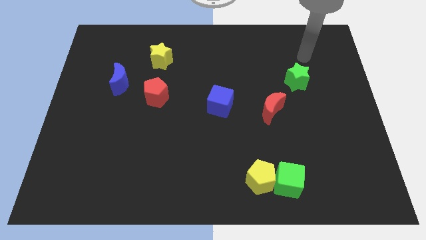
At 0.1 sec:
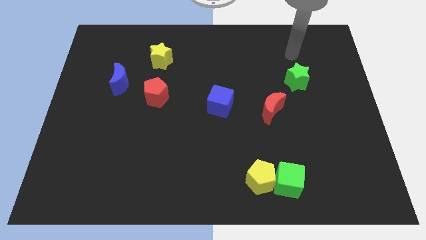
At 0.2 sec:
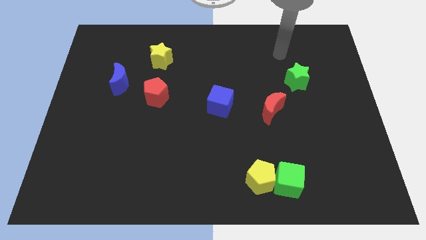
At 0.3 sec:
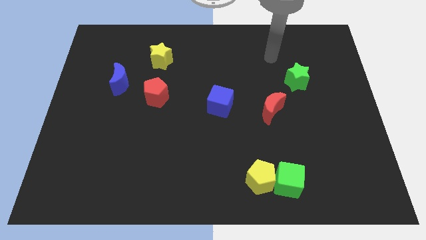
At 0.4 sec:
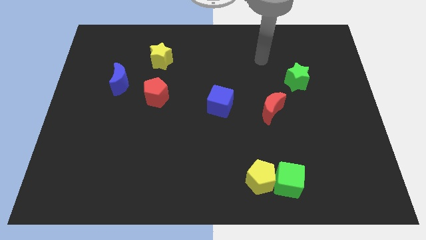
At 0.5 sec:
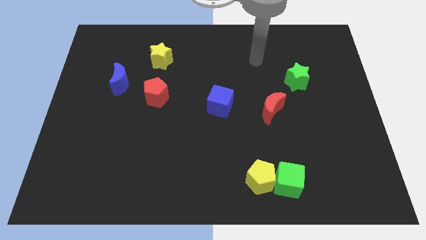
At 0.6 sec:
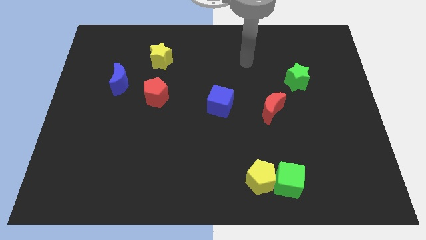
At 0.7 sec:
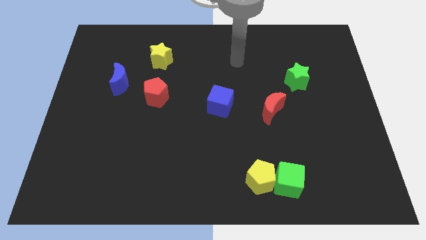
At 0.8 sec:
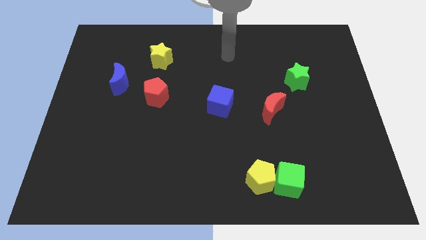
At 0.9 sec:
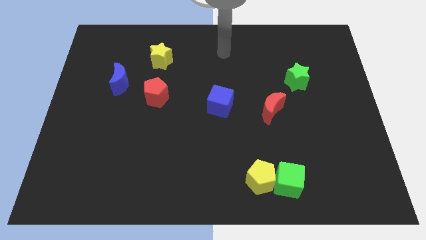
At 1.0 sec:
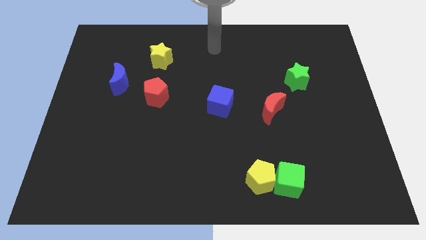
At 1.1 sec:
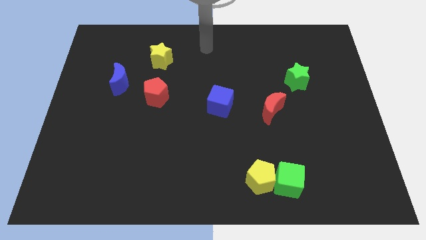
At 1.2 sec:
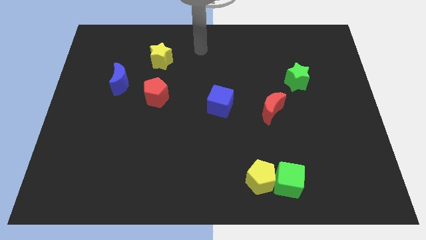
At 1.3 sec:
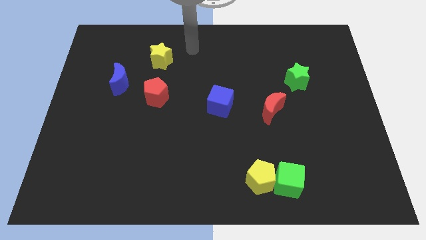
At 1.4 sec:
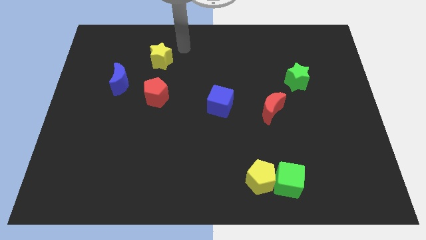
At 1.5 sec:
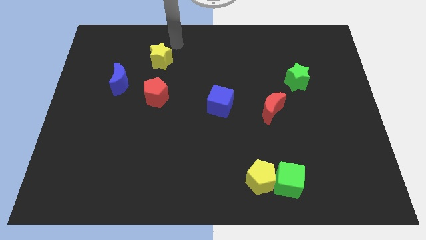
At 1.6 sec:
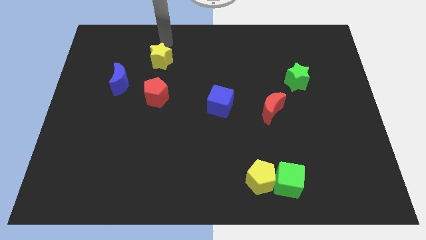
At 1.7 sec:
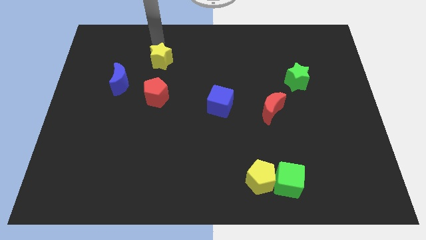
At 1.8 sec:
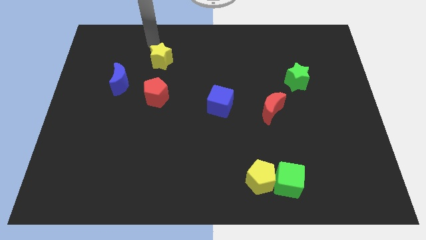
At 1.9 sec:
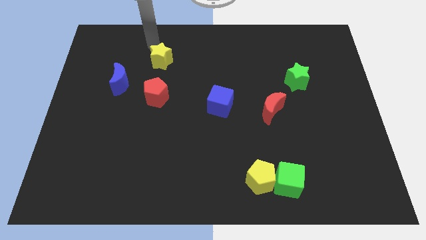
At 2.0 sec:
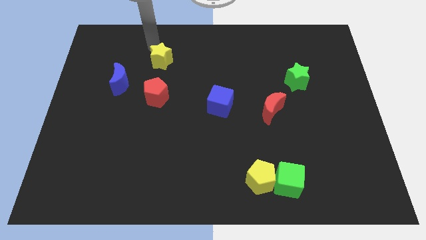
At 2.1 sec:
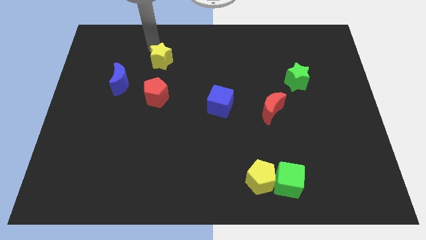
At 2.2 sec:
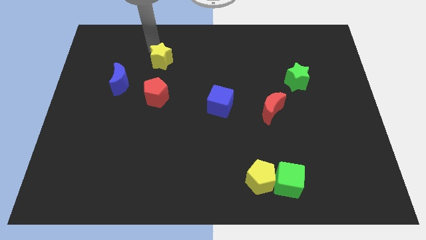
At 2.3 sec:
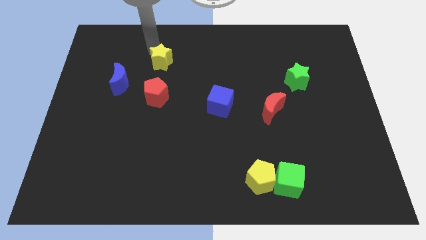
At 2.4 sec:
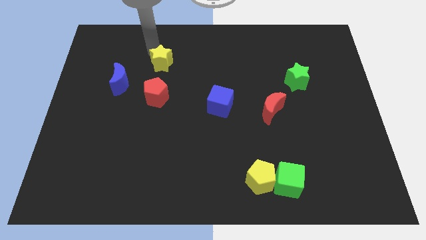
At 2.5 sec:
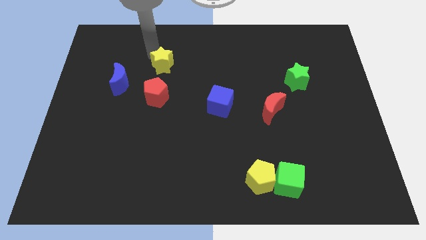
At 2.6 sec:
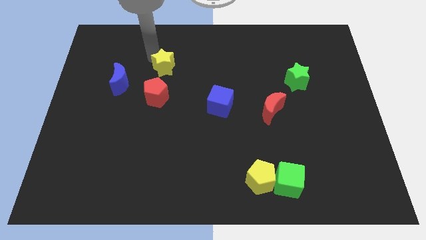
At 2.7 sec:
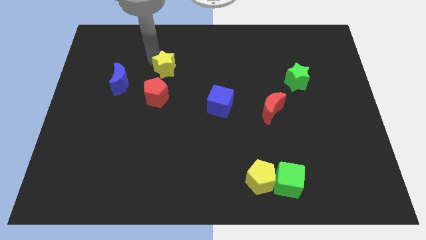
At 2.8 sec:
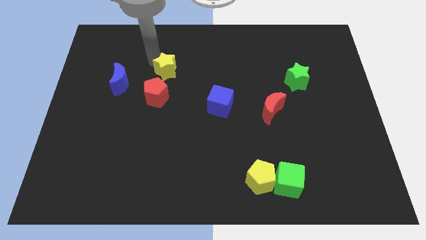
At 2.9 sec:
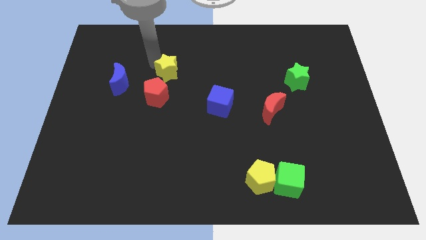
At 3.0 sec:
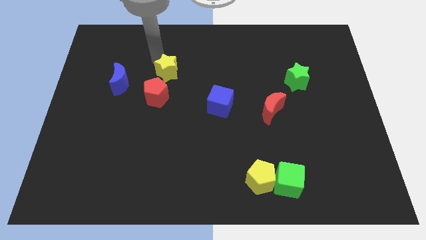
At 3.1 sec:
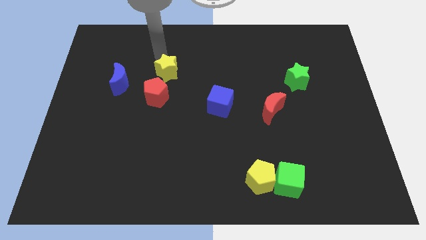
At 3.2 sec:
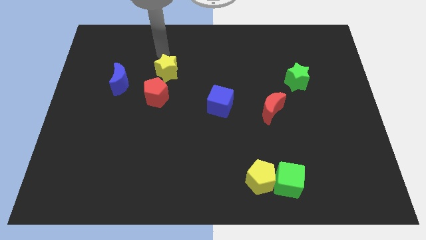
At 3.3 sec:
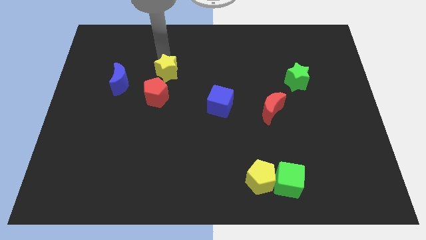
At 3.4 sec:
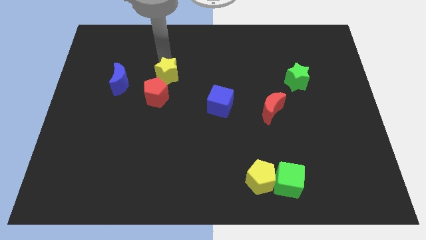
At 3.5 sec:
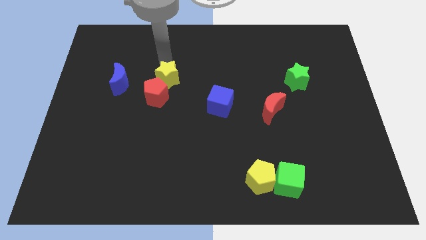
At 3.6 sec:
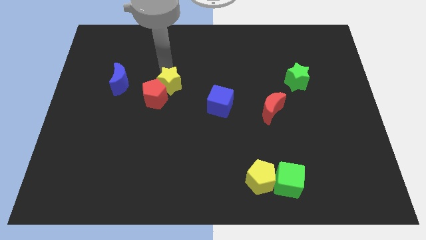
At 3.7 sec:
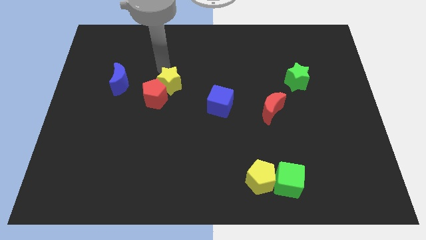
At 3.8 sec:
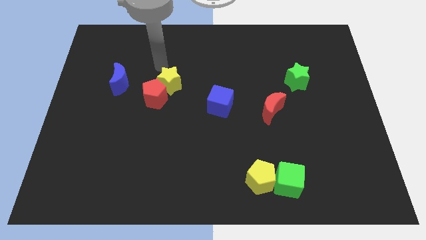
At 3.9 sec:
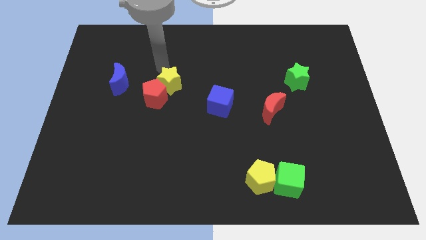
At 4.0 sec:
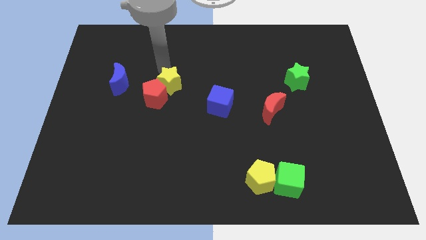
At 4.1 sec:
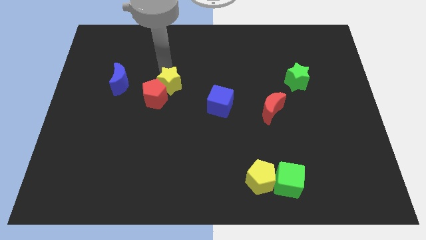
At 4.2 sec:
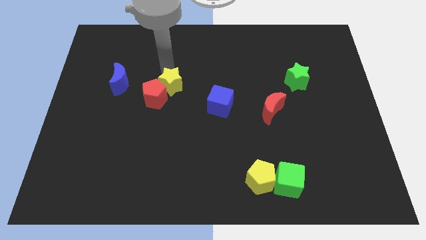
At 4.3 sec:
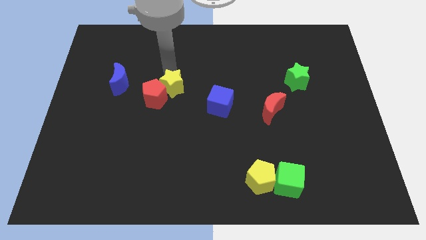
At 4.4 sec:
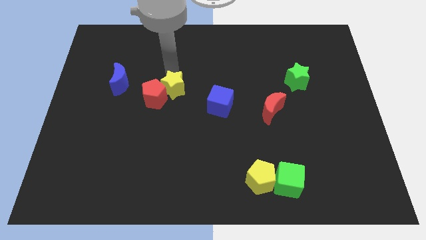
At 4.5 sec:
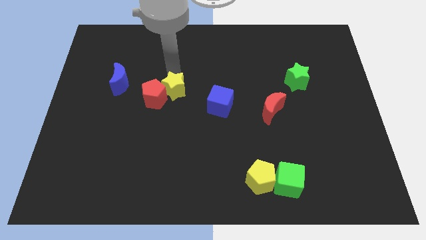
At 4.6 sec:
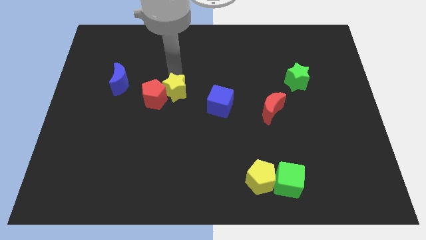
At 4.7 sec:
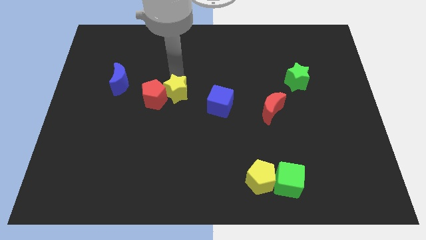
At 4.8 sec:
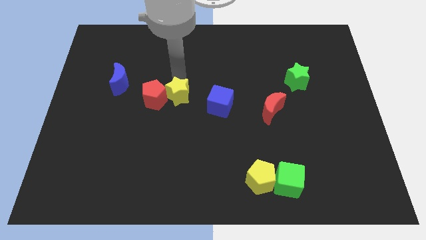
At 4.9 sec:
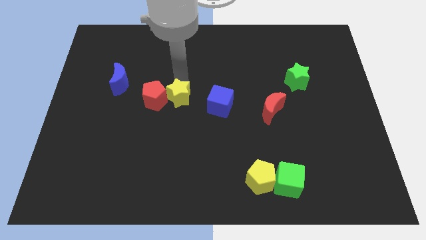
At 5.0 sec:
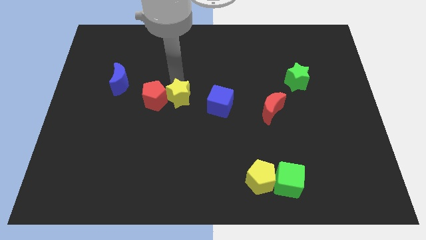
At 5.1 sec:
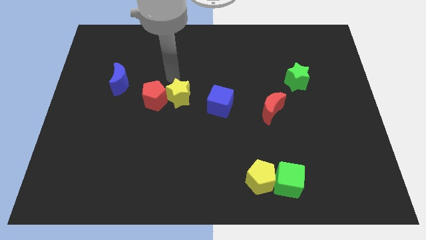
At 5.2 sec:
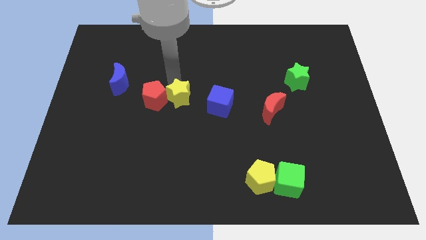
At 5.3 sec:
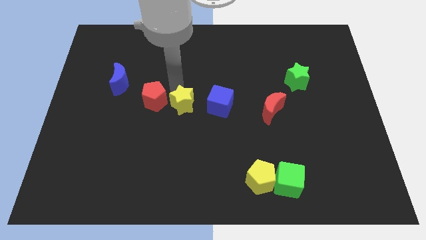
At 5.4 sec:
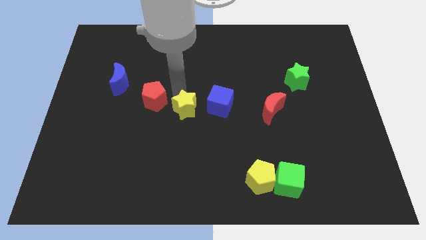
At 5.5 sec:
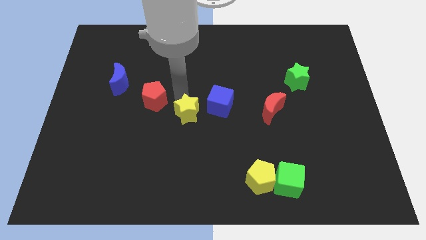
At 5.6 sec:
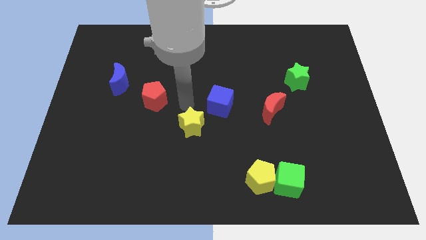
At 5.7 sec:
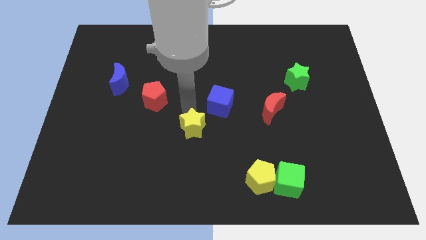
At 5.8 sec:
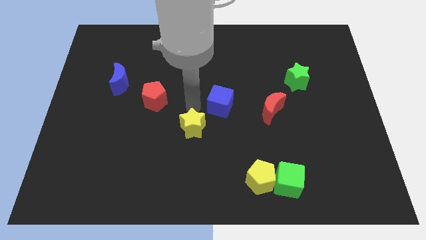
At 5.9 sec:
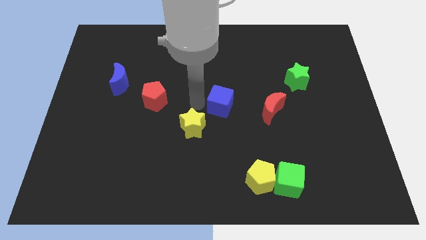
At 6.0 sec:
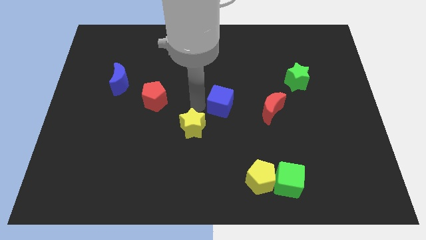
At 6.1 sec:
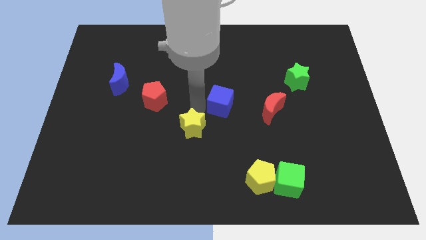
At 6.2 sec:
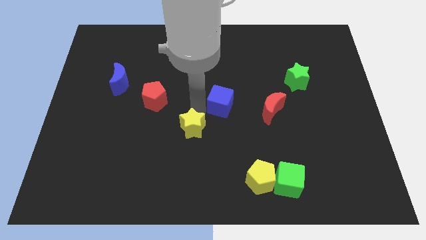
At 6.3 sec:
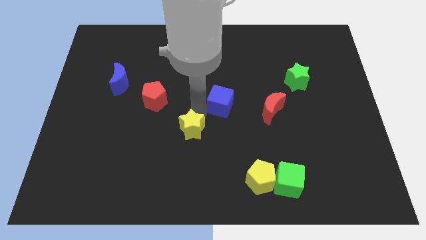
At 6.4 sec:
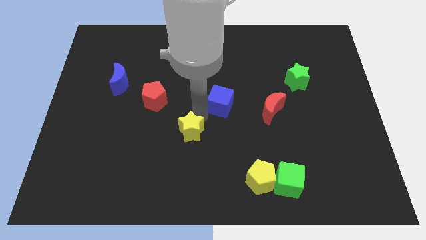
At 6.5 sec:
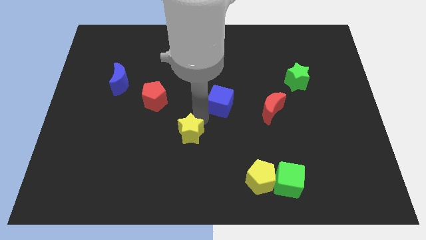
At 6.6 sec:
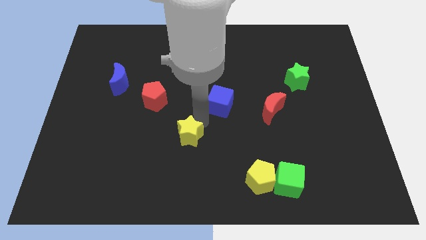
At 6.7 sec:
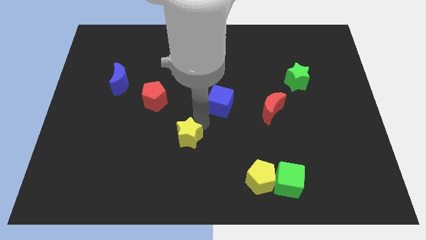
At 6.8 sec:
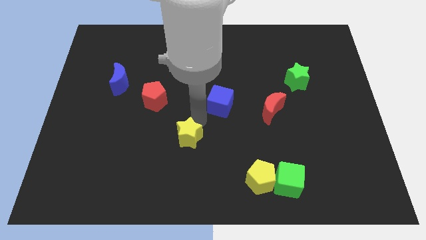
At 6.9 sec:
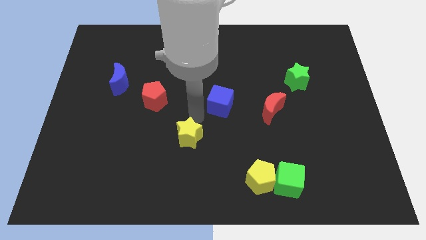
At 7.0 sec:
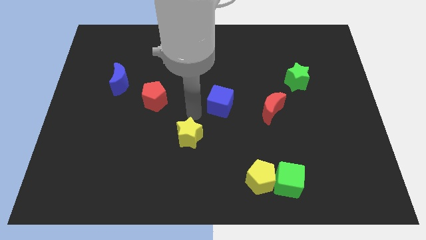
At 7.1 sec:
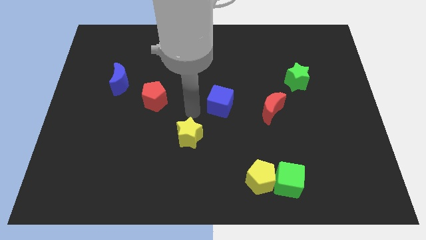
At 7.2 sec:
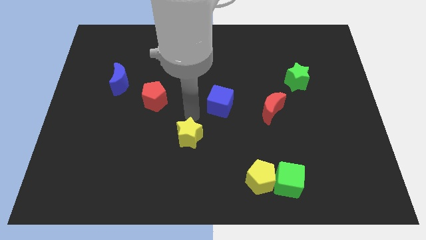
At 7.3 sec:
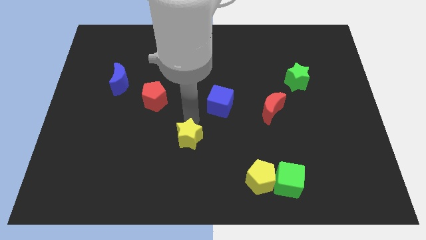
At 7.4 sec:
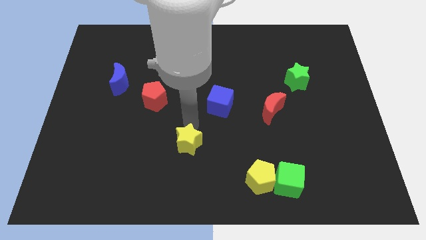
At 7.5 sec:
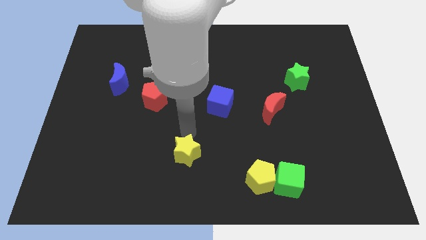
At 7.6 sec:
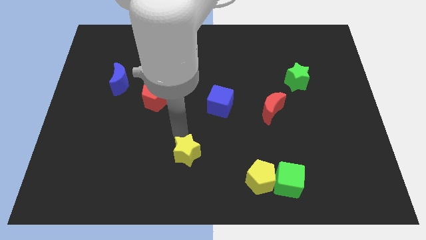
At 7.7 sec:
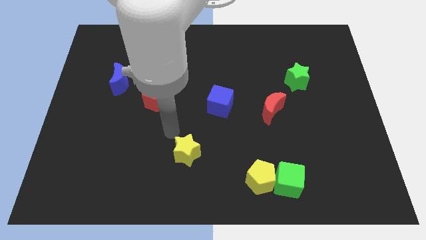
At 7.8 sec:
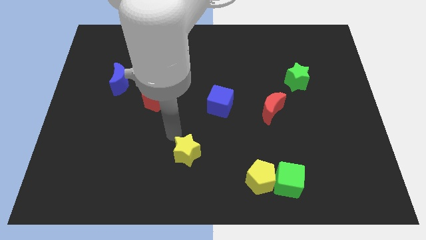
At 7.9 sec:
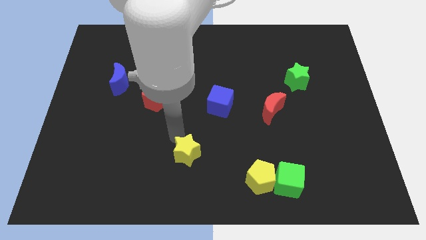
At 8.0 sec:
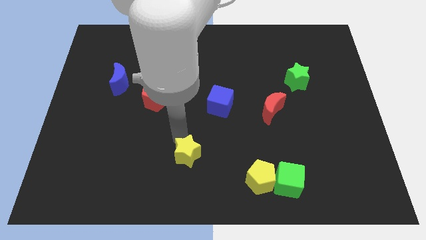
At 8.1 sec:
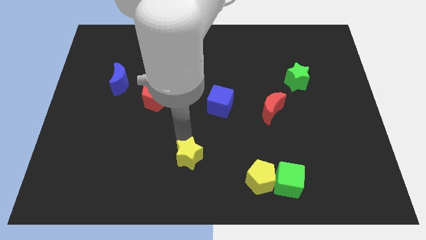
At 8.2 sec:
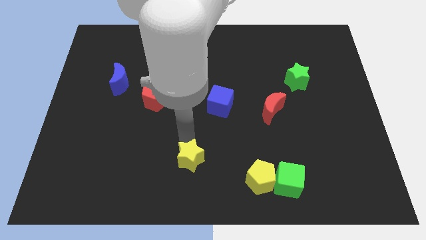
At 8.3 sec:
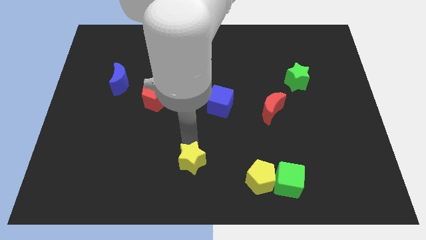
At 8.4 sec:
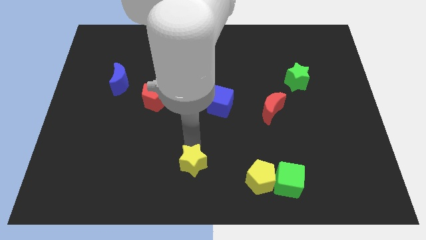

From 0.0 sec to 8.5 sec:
put the yellow star left of the yellow pentagon

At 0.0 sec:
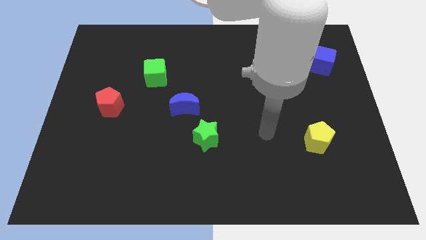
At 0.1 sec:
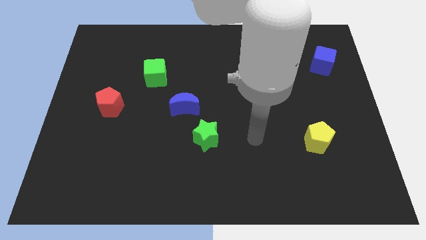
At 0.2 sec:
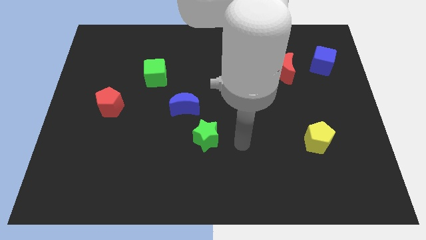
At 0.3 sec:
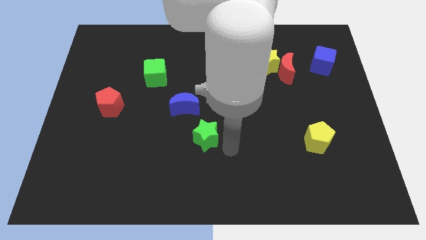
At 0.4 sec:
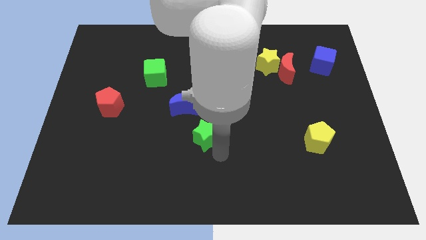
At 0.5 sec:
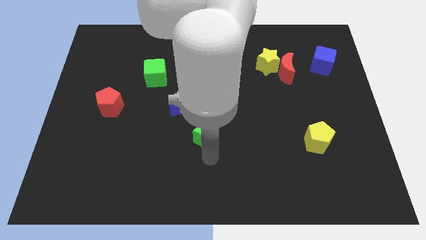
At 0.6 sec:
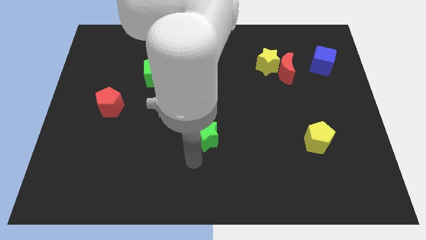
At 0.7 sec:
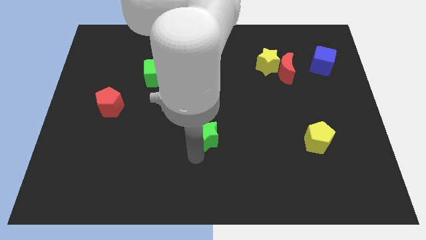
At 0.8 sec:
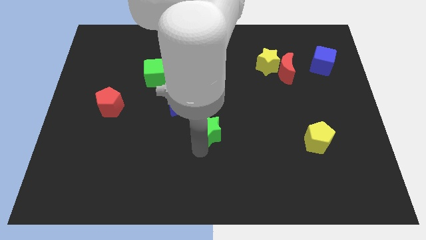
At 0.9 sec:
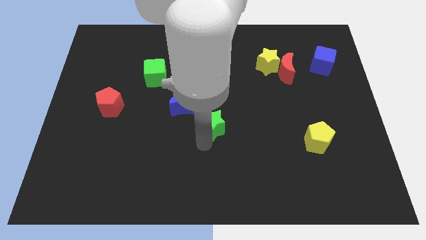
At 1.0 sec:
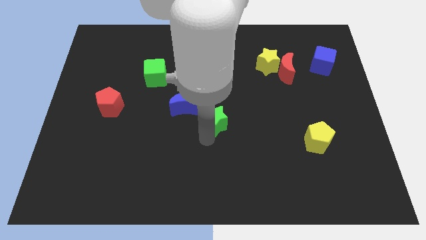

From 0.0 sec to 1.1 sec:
slide the green star right of the blue moon
